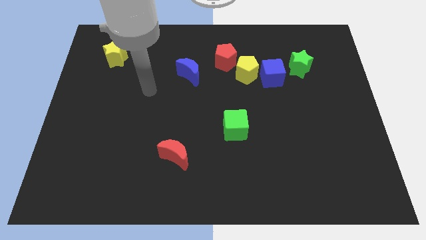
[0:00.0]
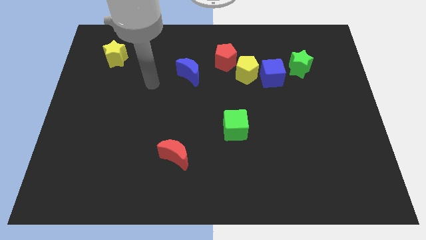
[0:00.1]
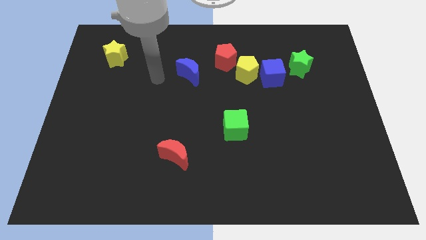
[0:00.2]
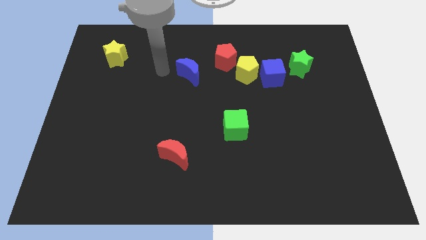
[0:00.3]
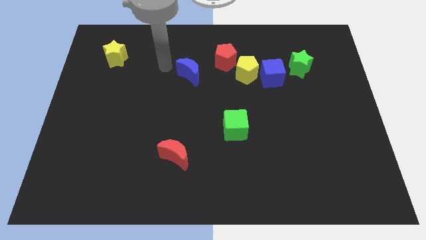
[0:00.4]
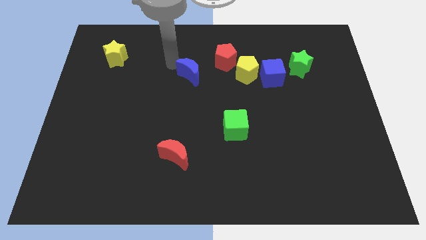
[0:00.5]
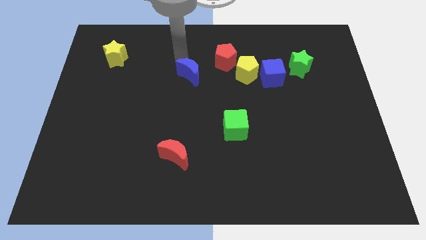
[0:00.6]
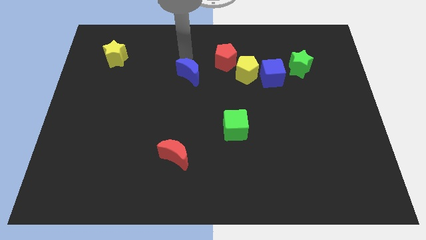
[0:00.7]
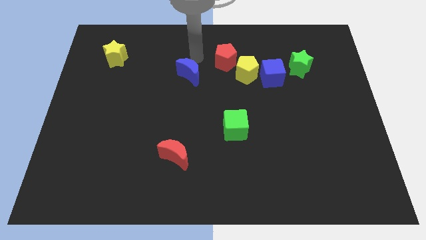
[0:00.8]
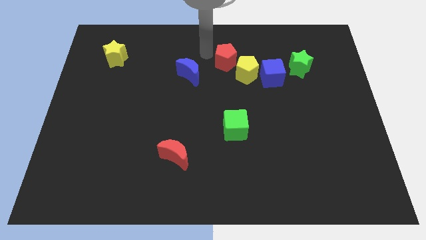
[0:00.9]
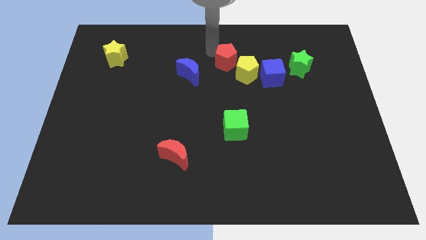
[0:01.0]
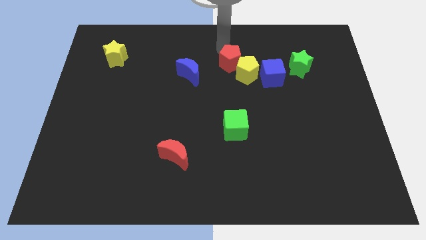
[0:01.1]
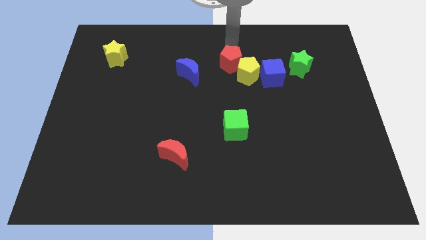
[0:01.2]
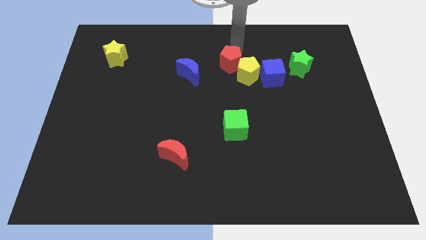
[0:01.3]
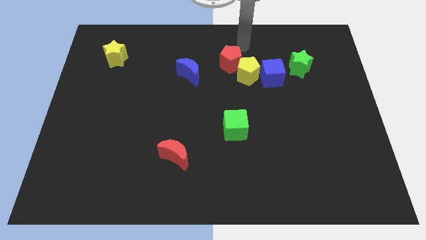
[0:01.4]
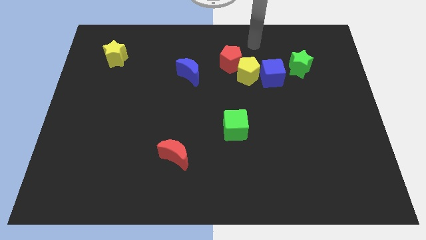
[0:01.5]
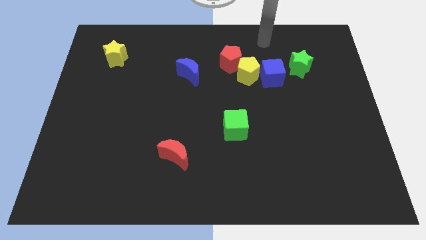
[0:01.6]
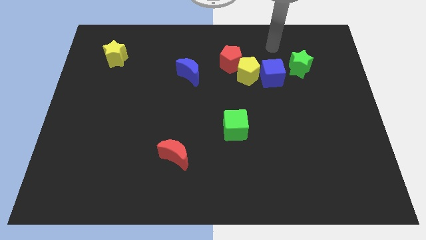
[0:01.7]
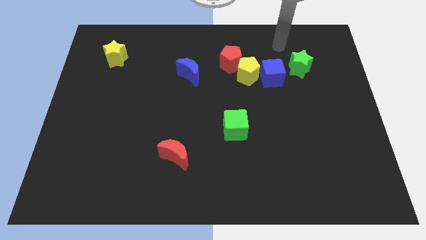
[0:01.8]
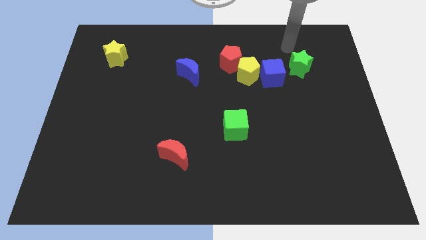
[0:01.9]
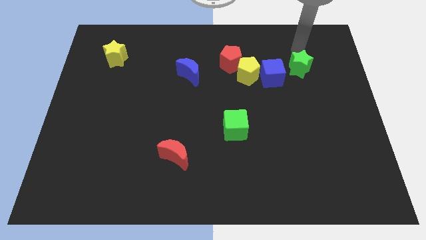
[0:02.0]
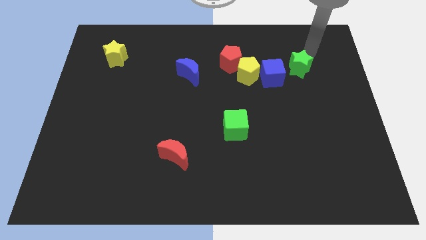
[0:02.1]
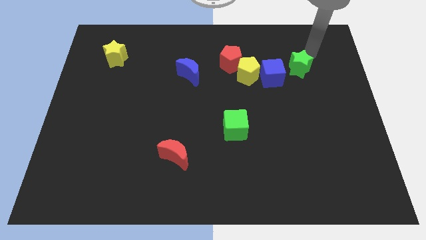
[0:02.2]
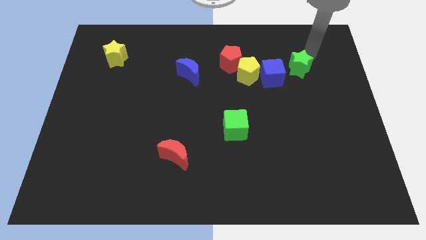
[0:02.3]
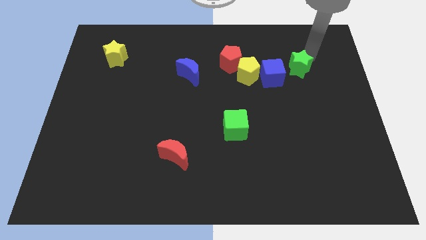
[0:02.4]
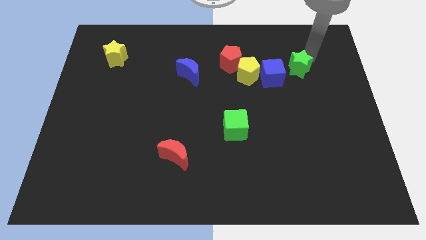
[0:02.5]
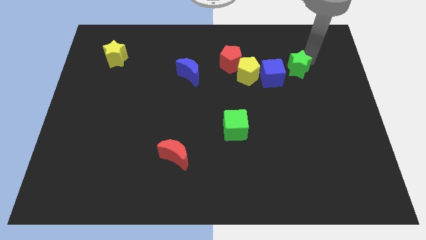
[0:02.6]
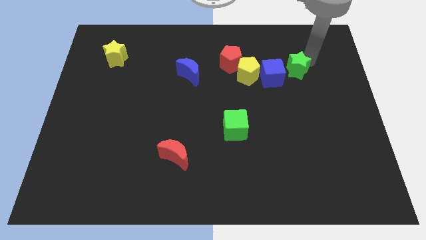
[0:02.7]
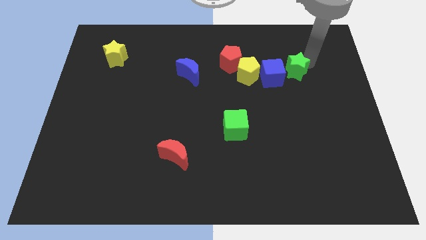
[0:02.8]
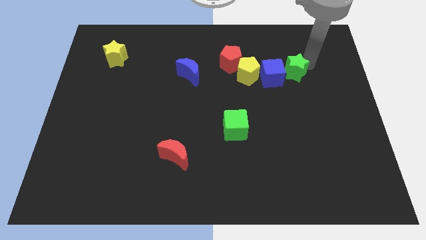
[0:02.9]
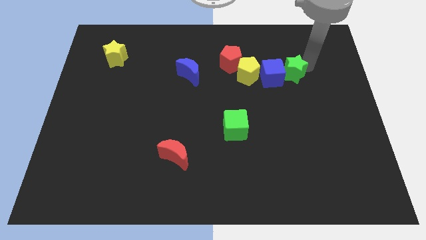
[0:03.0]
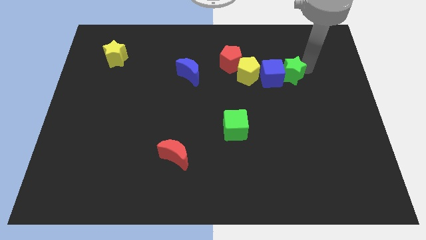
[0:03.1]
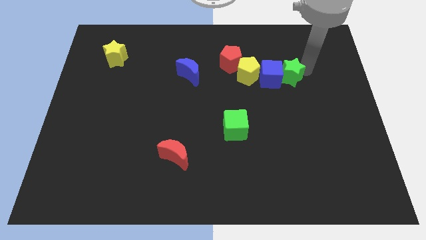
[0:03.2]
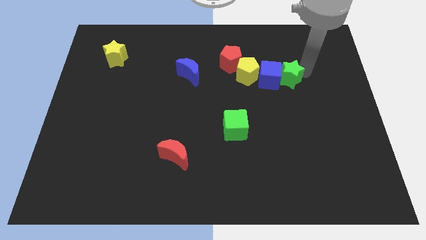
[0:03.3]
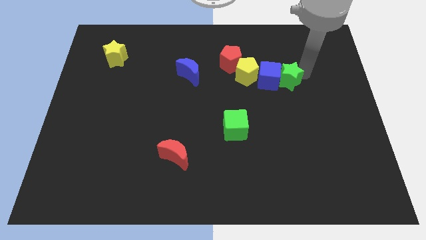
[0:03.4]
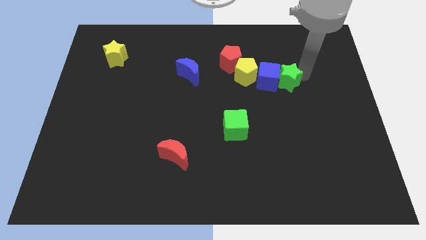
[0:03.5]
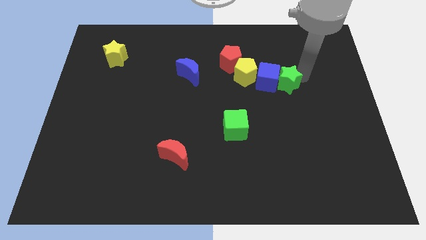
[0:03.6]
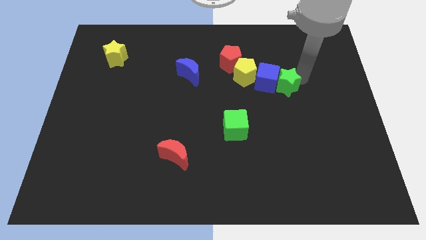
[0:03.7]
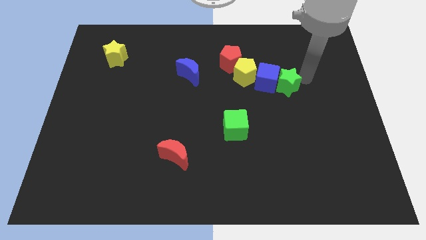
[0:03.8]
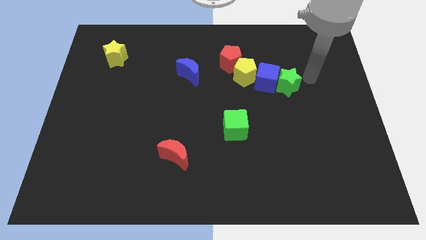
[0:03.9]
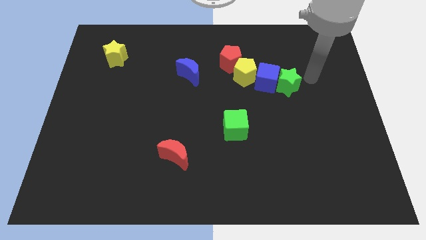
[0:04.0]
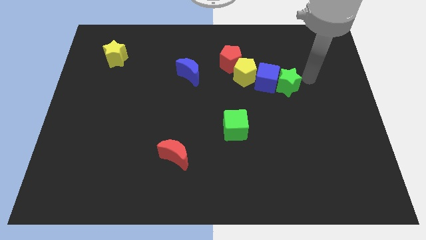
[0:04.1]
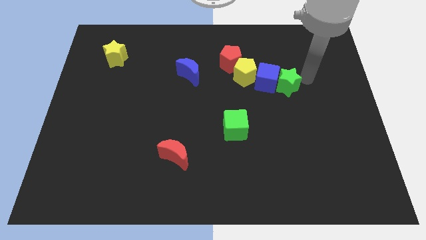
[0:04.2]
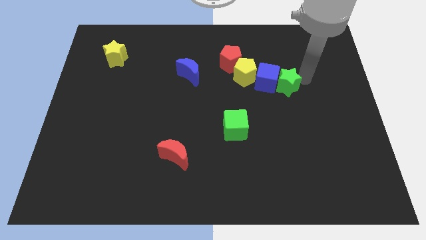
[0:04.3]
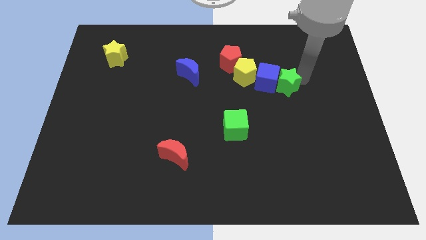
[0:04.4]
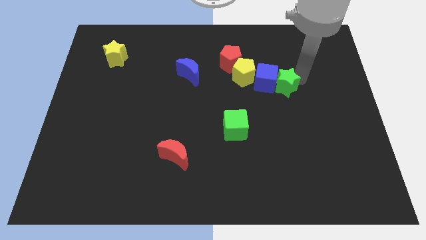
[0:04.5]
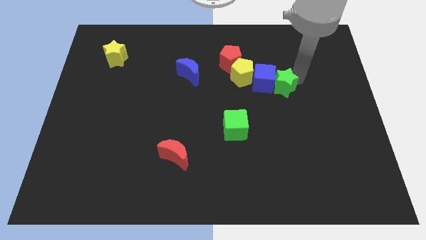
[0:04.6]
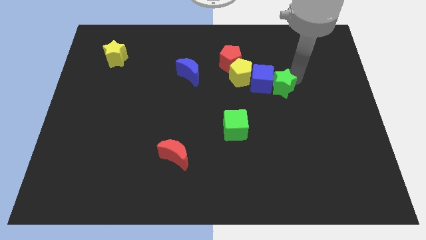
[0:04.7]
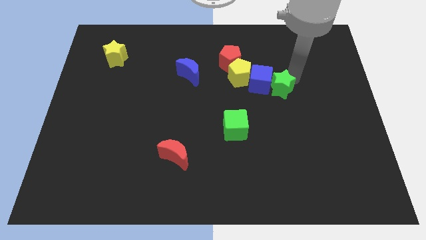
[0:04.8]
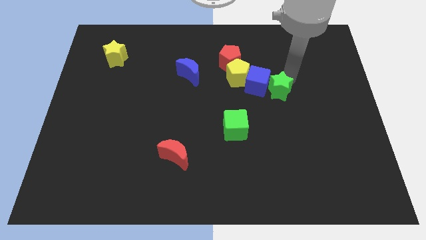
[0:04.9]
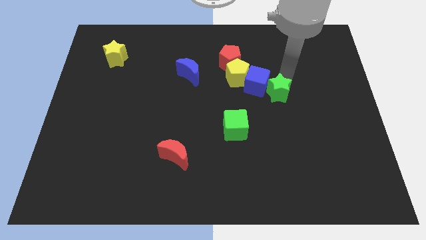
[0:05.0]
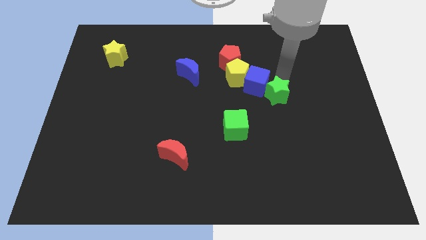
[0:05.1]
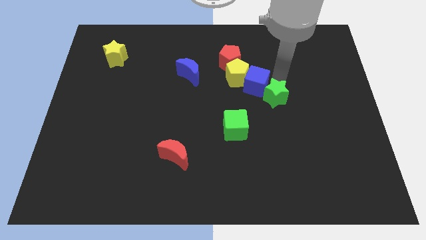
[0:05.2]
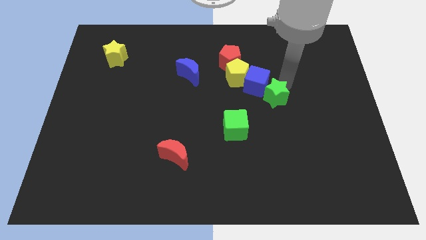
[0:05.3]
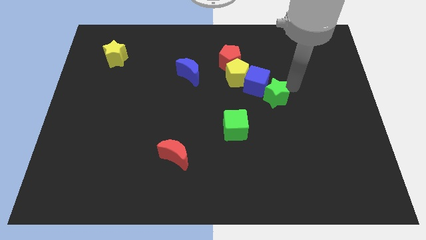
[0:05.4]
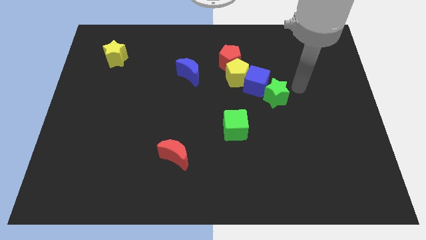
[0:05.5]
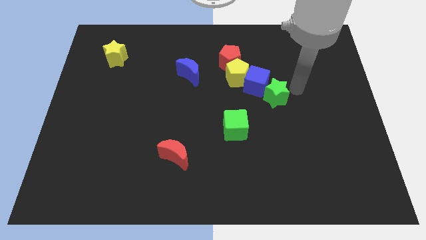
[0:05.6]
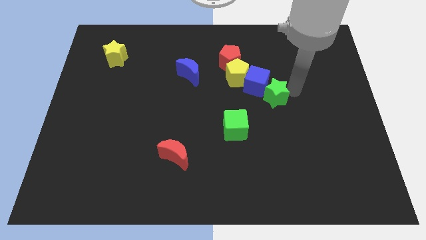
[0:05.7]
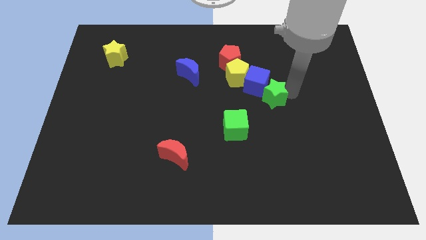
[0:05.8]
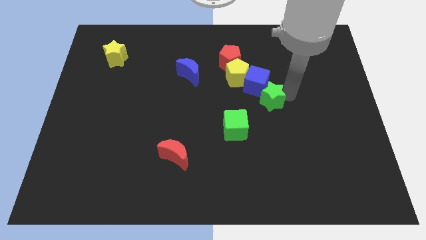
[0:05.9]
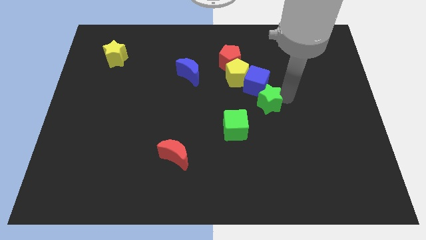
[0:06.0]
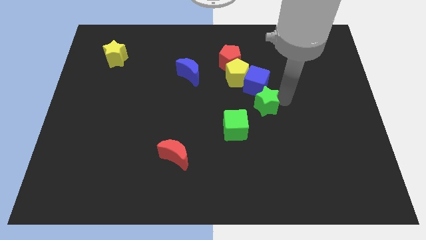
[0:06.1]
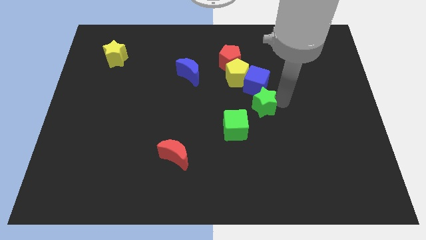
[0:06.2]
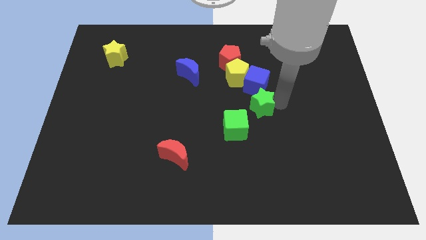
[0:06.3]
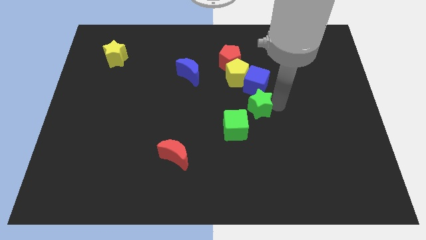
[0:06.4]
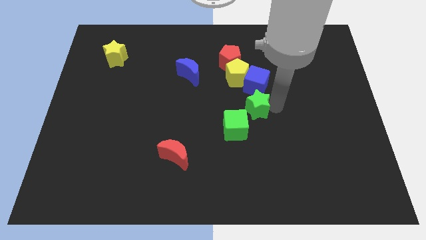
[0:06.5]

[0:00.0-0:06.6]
slide the green star to the bottom of the yellow pentagon
